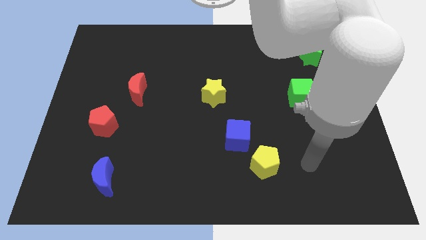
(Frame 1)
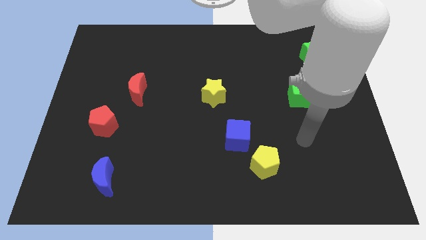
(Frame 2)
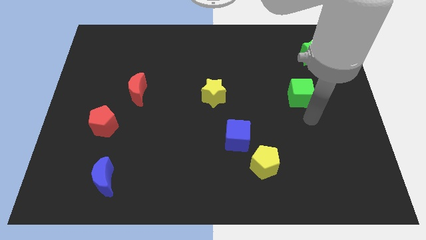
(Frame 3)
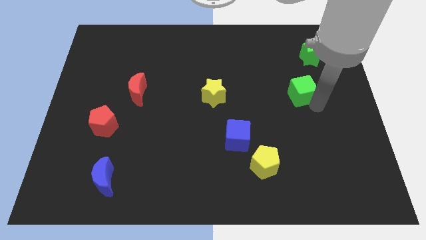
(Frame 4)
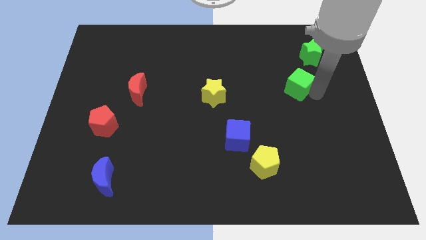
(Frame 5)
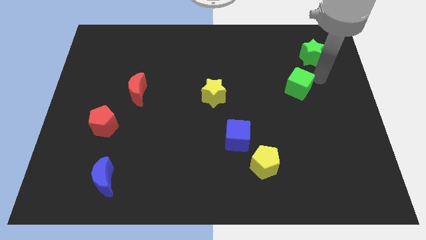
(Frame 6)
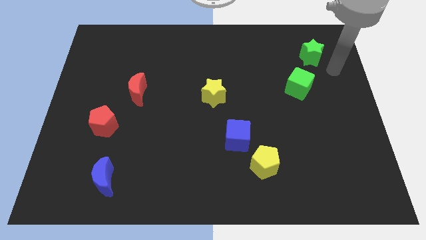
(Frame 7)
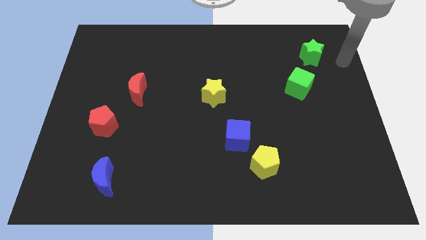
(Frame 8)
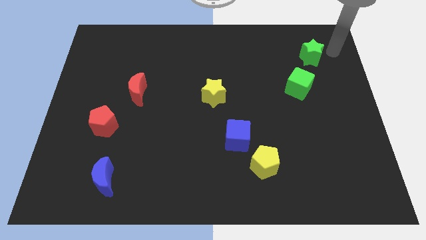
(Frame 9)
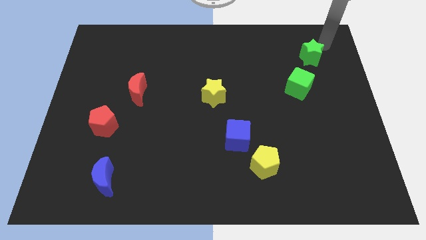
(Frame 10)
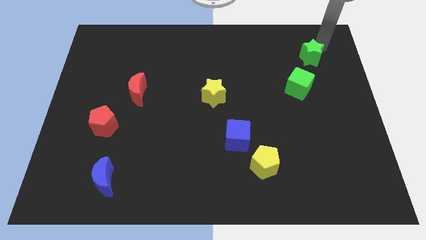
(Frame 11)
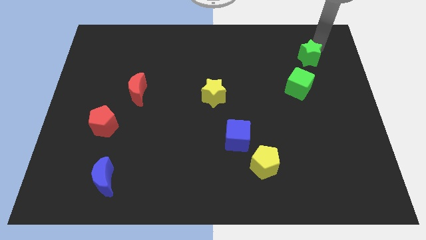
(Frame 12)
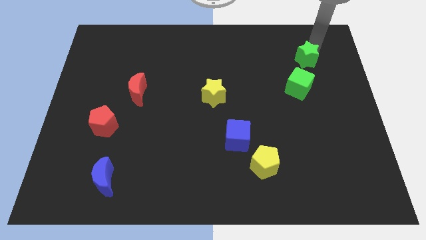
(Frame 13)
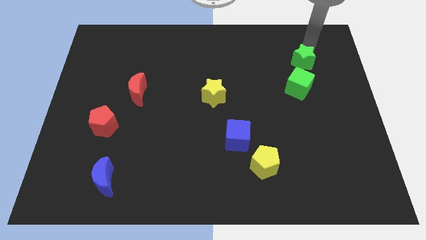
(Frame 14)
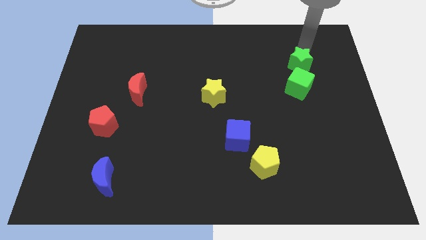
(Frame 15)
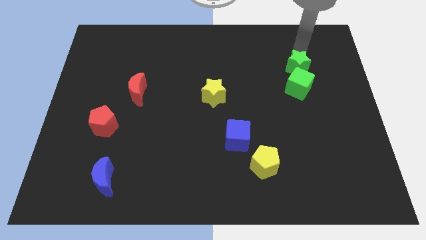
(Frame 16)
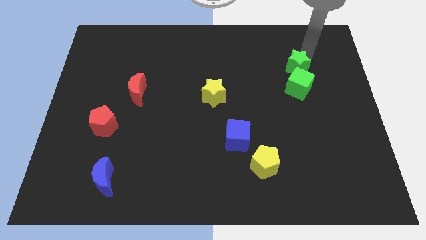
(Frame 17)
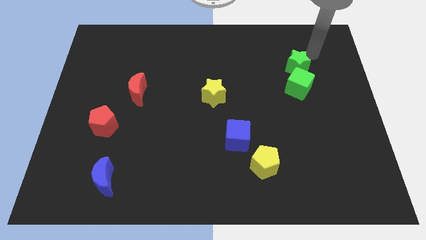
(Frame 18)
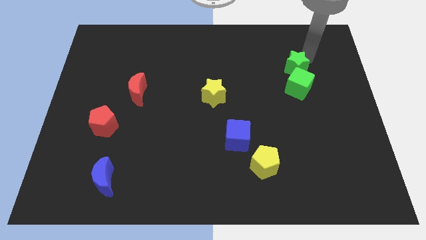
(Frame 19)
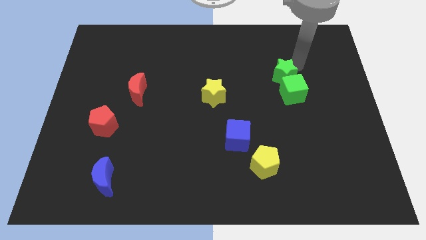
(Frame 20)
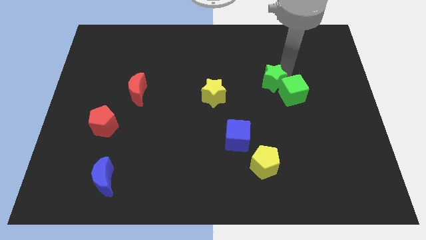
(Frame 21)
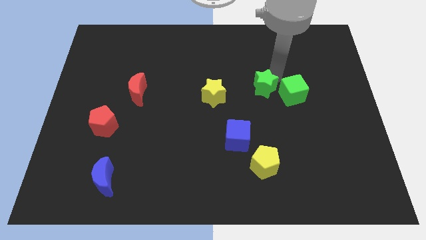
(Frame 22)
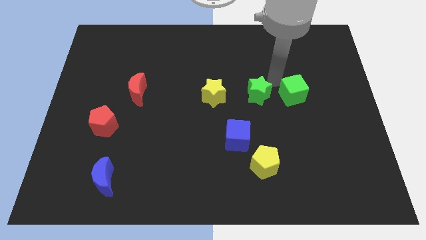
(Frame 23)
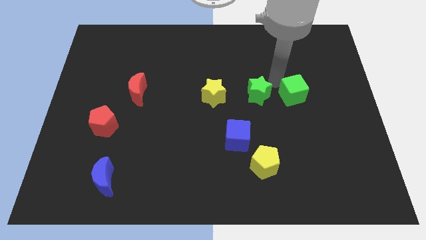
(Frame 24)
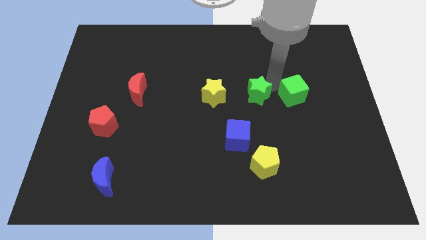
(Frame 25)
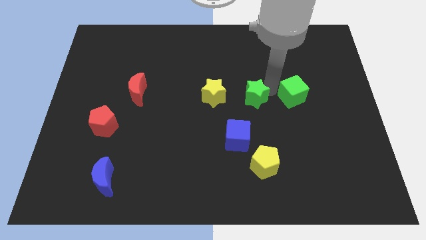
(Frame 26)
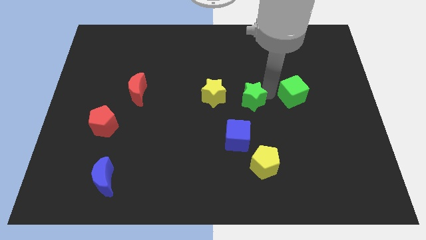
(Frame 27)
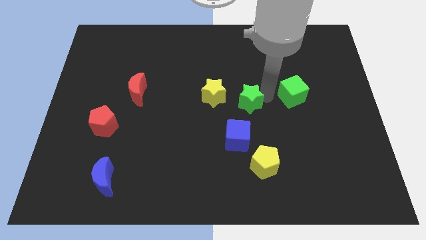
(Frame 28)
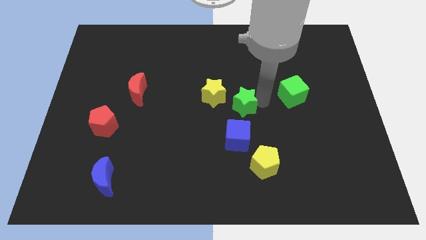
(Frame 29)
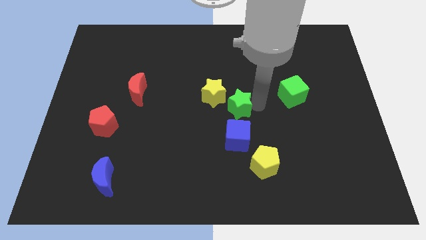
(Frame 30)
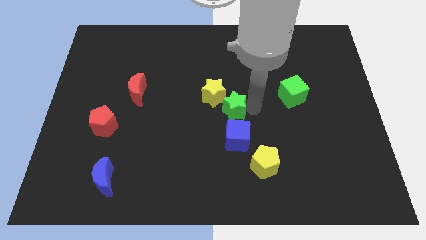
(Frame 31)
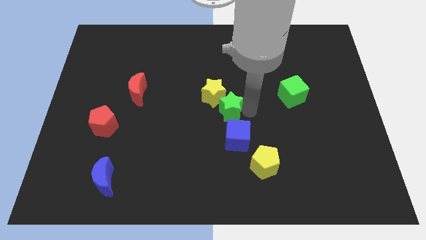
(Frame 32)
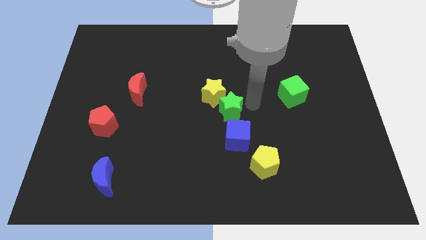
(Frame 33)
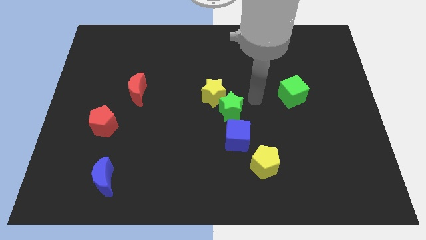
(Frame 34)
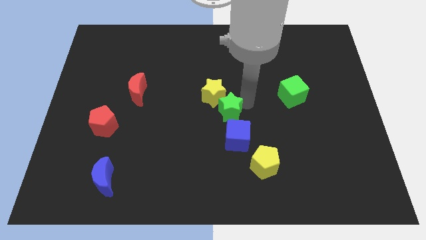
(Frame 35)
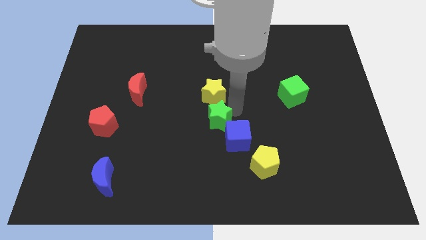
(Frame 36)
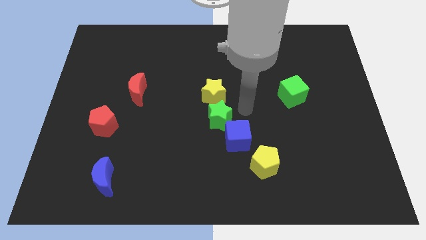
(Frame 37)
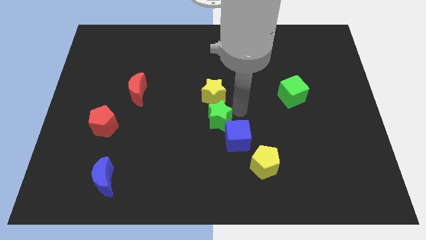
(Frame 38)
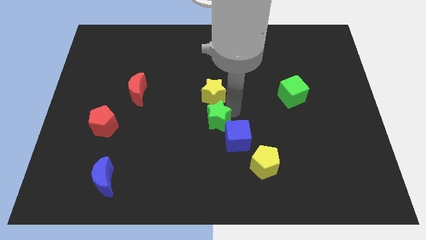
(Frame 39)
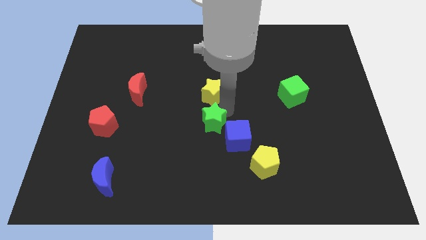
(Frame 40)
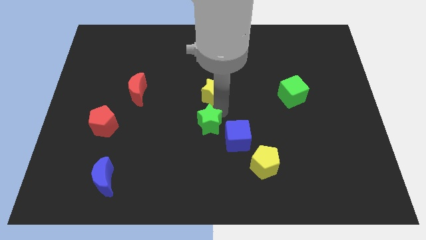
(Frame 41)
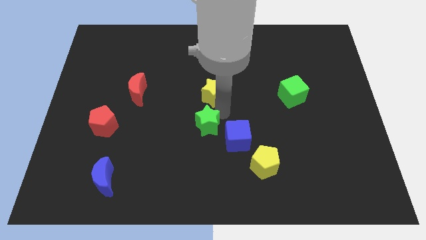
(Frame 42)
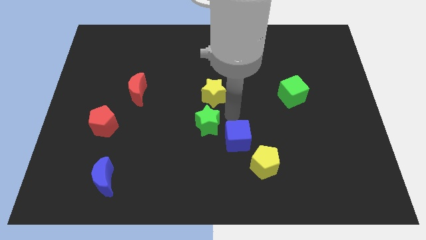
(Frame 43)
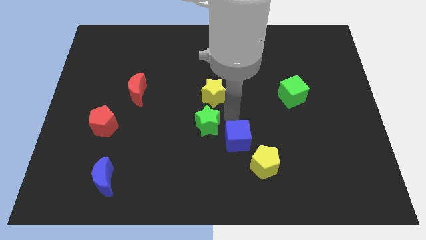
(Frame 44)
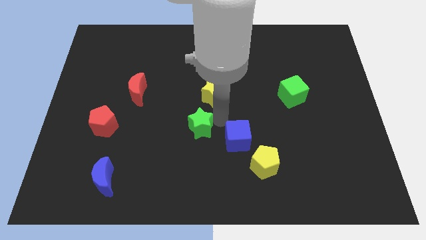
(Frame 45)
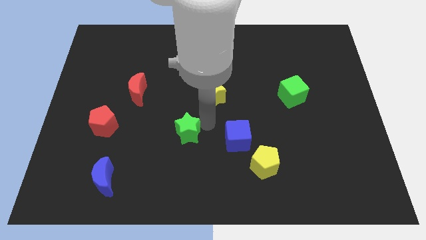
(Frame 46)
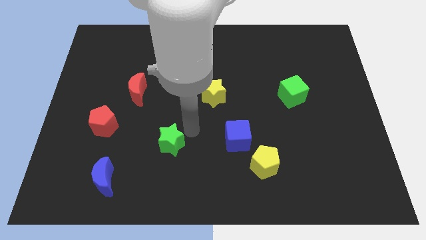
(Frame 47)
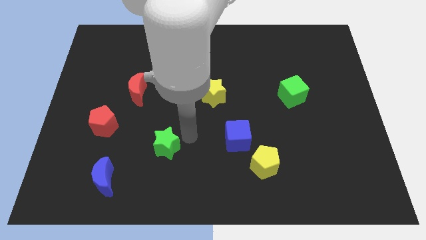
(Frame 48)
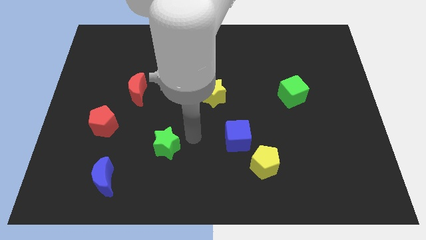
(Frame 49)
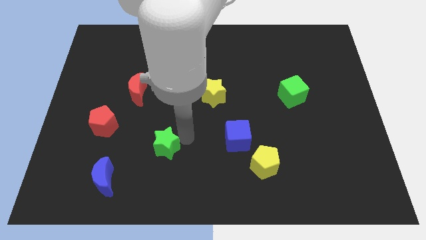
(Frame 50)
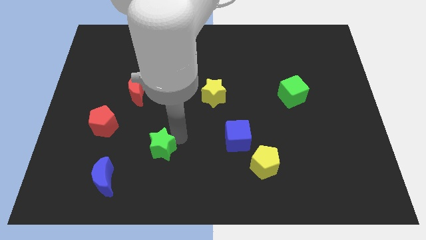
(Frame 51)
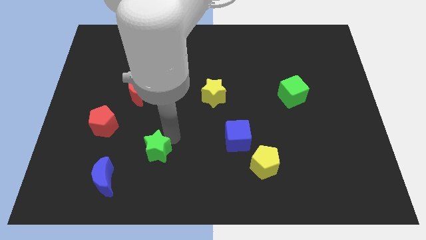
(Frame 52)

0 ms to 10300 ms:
slide the green star to the top right side of the blue moon

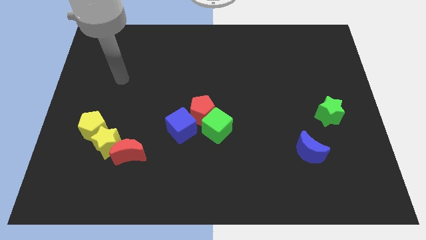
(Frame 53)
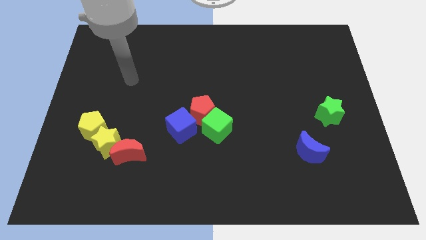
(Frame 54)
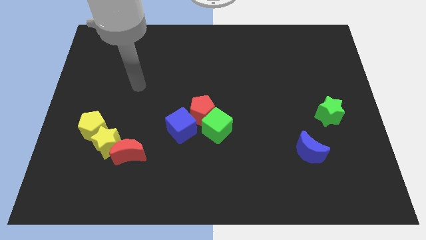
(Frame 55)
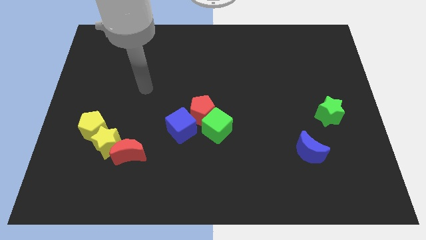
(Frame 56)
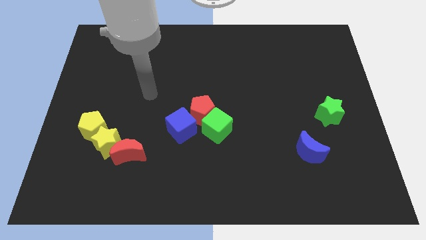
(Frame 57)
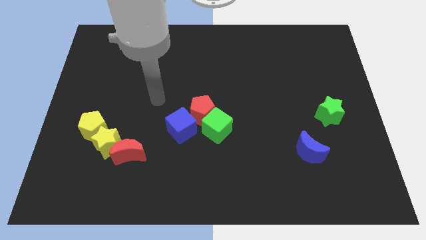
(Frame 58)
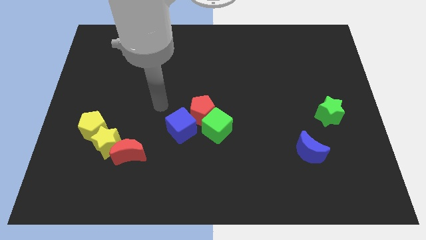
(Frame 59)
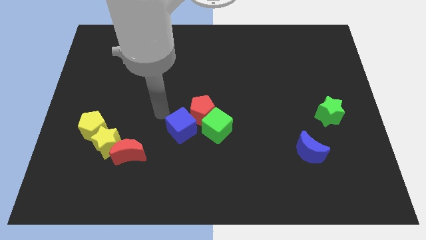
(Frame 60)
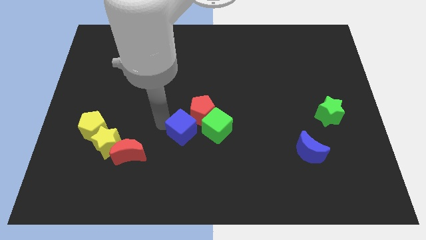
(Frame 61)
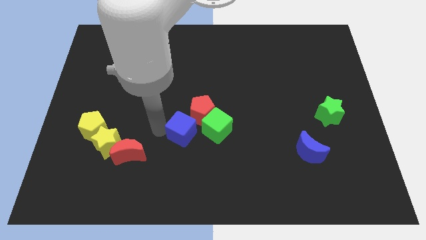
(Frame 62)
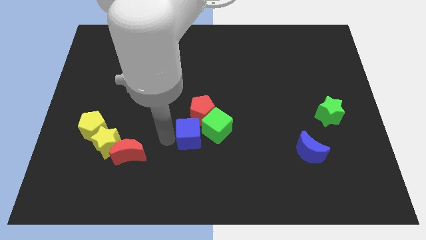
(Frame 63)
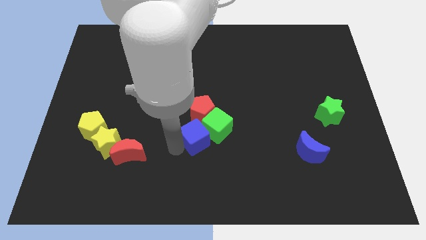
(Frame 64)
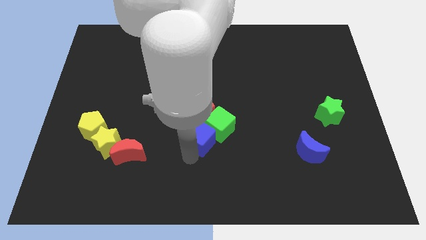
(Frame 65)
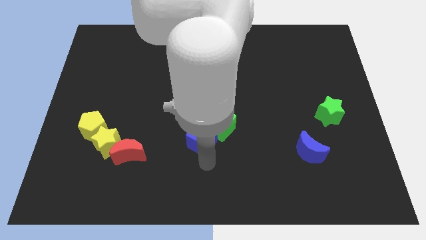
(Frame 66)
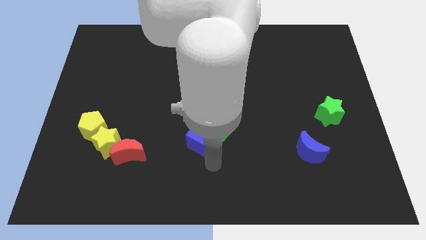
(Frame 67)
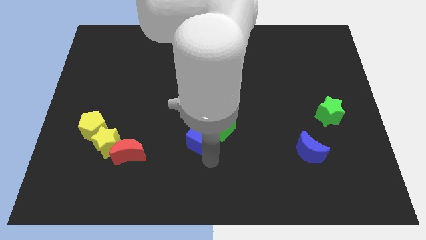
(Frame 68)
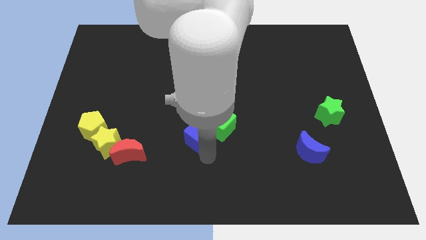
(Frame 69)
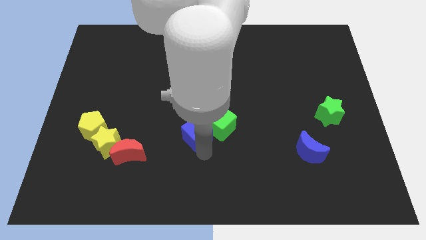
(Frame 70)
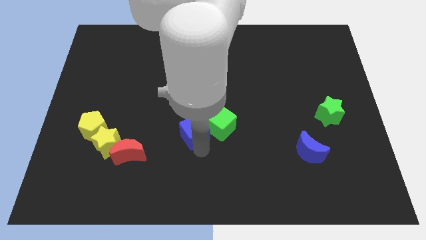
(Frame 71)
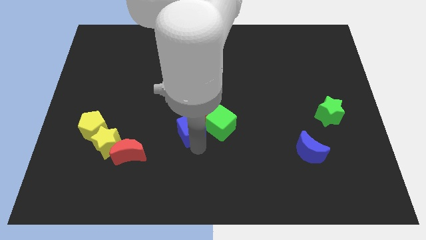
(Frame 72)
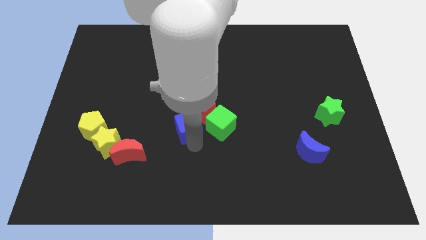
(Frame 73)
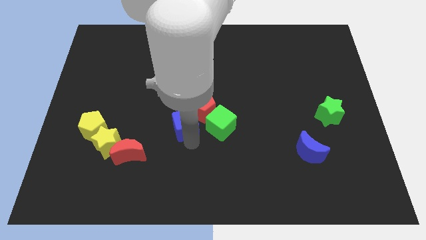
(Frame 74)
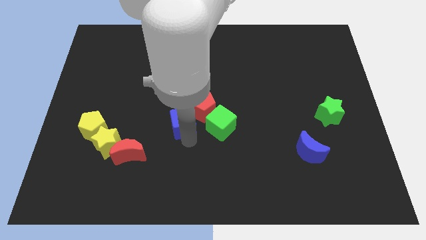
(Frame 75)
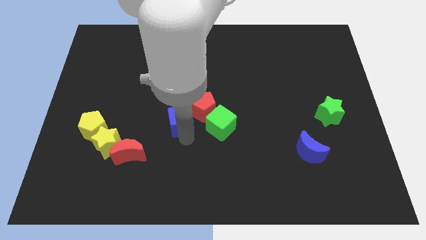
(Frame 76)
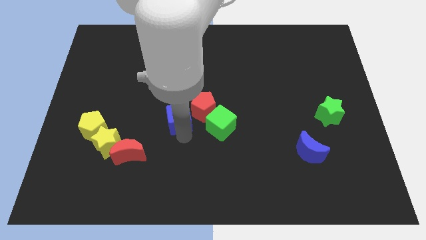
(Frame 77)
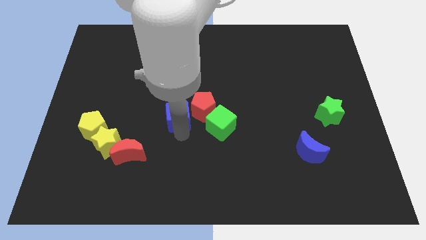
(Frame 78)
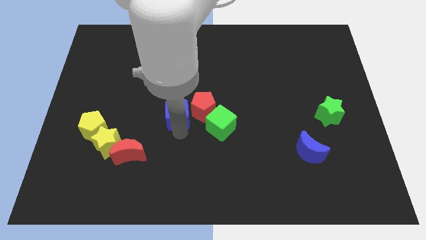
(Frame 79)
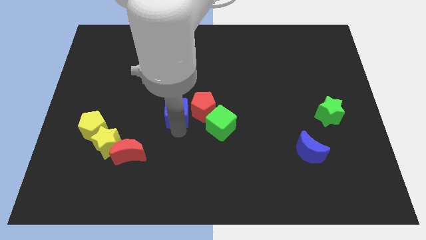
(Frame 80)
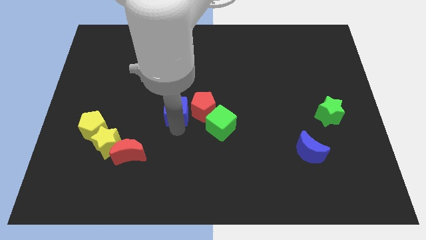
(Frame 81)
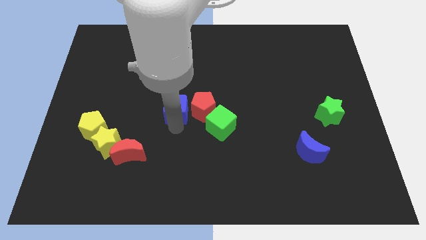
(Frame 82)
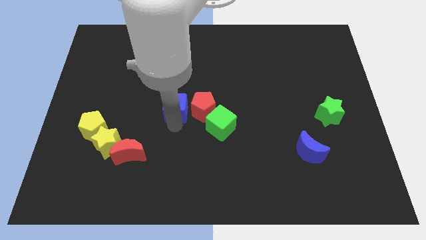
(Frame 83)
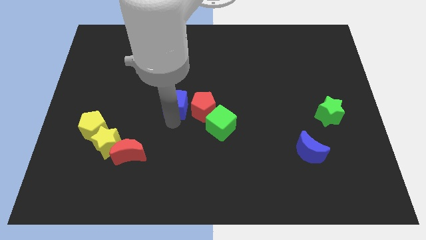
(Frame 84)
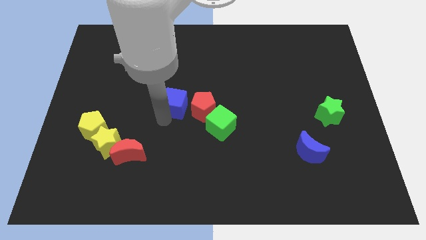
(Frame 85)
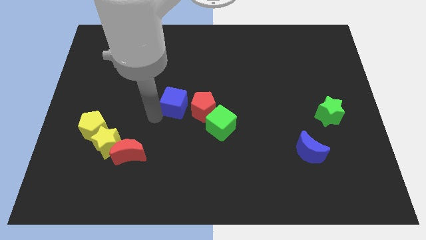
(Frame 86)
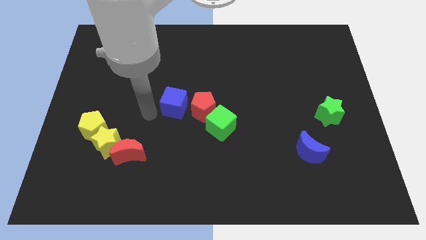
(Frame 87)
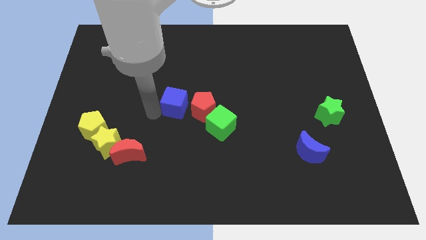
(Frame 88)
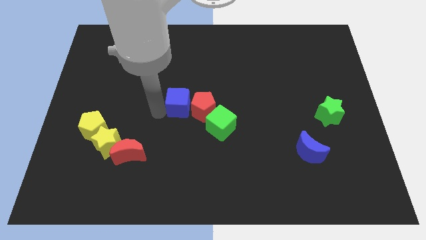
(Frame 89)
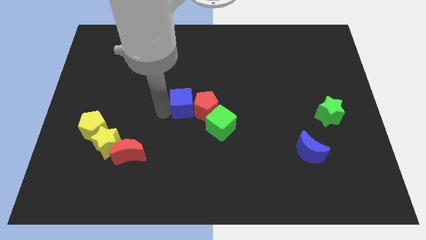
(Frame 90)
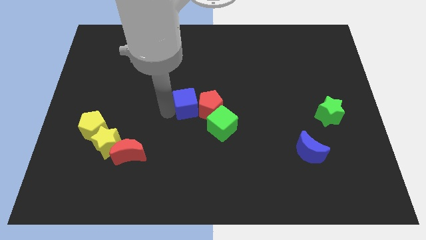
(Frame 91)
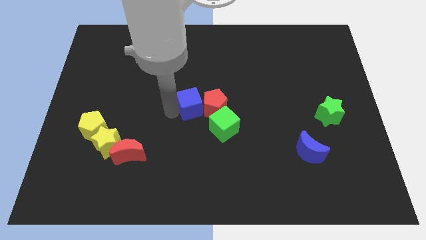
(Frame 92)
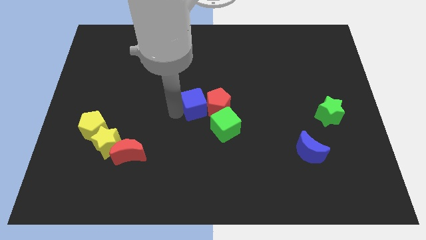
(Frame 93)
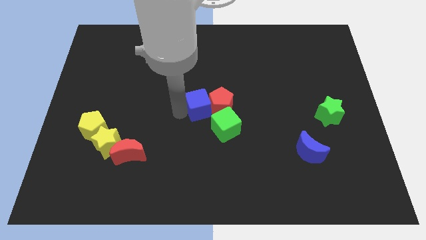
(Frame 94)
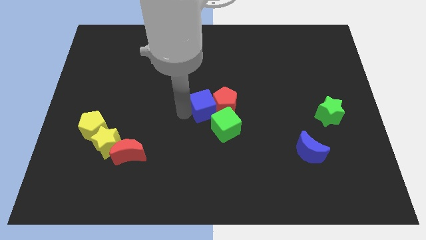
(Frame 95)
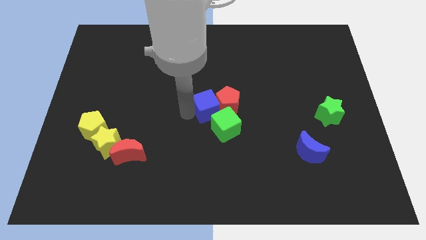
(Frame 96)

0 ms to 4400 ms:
move the blue cube above the green cube
